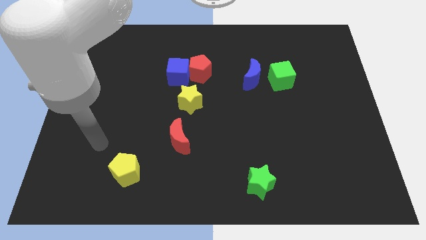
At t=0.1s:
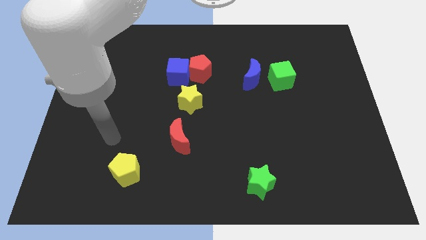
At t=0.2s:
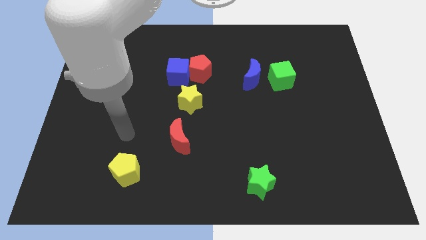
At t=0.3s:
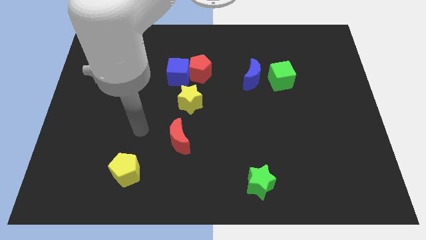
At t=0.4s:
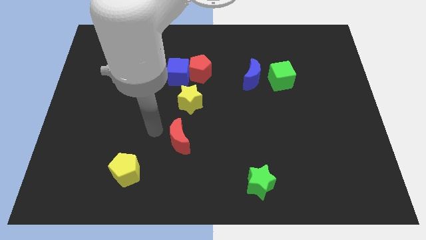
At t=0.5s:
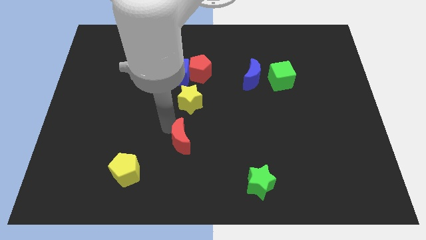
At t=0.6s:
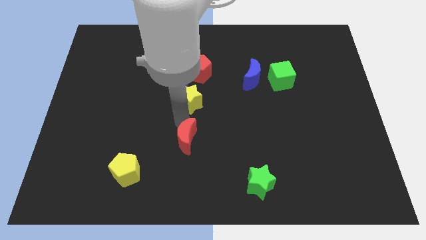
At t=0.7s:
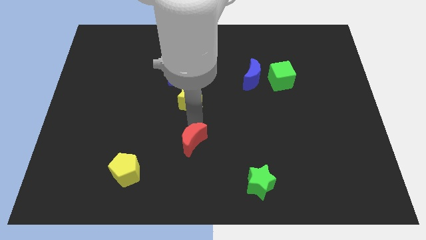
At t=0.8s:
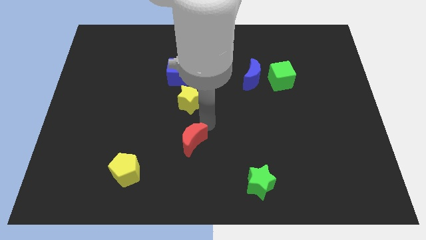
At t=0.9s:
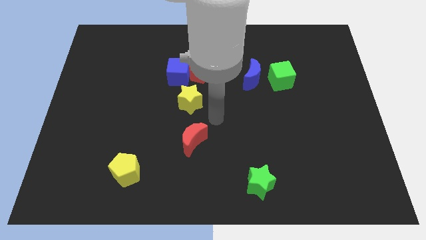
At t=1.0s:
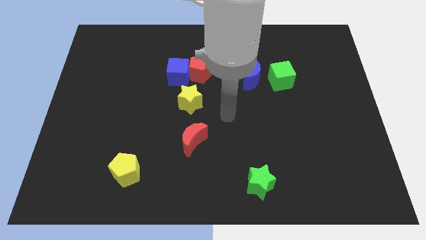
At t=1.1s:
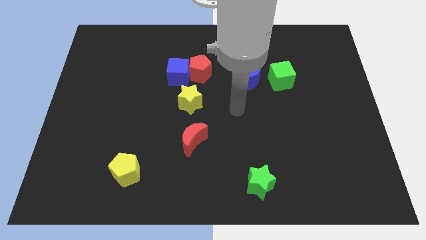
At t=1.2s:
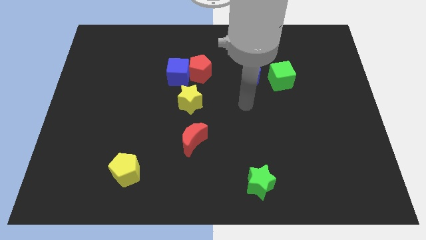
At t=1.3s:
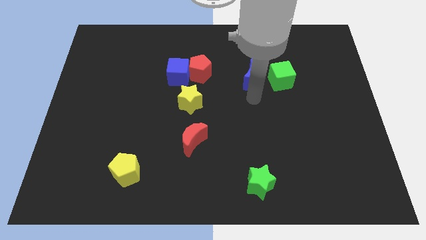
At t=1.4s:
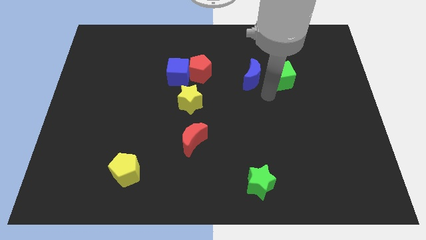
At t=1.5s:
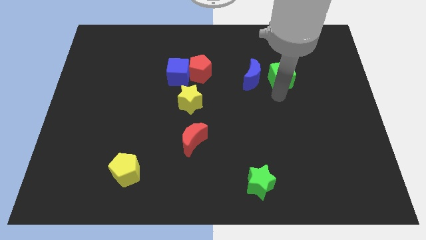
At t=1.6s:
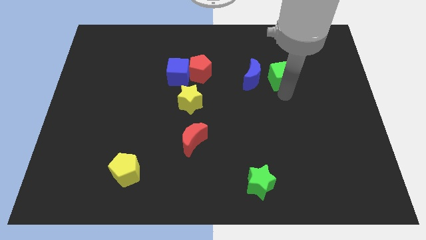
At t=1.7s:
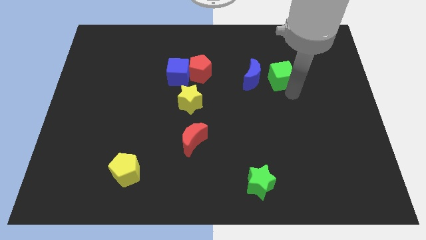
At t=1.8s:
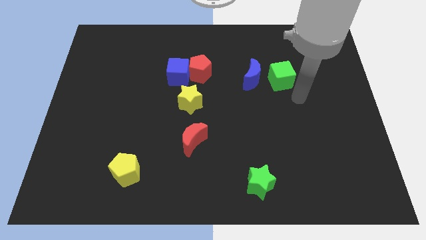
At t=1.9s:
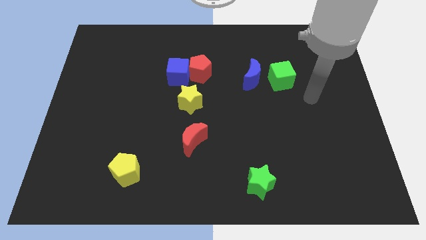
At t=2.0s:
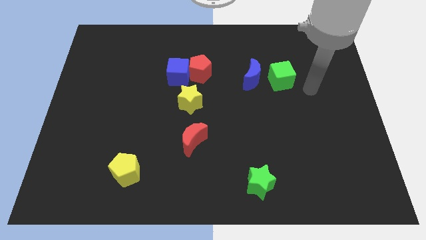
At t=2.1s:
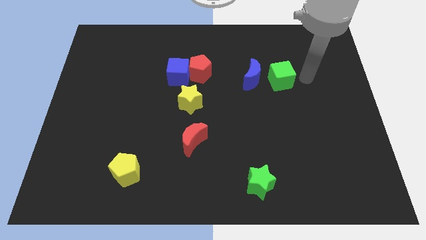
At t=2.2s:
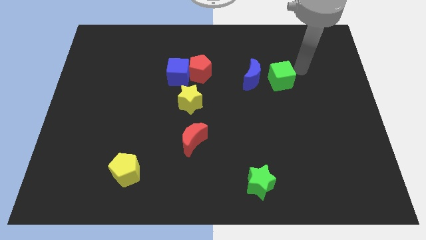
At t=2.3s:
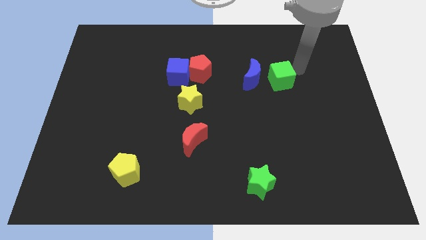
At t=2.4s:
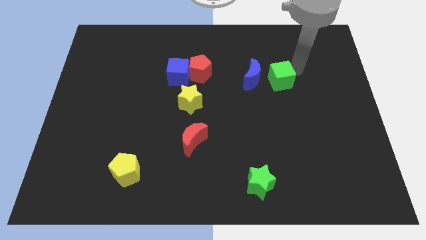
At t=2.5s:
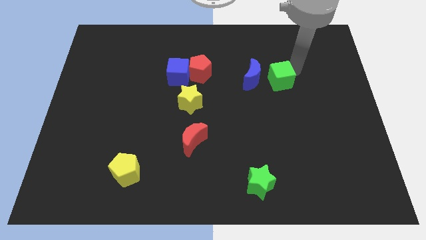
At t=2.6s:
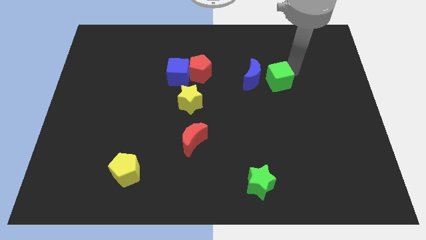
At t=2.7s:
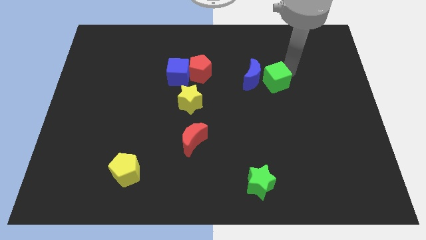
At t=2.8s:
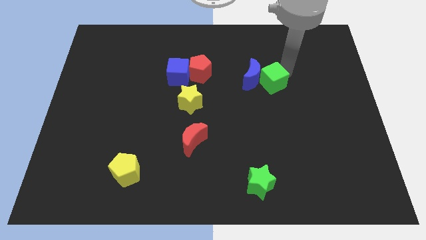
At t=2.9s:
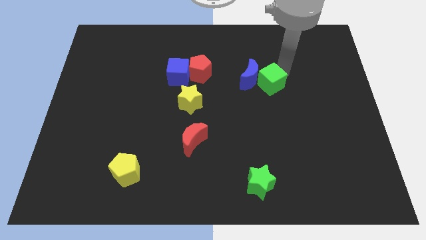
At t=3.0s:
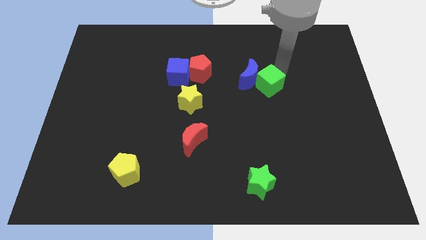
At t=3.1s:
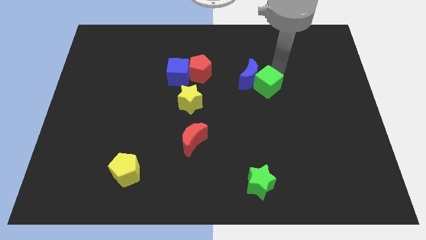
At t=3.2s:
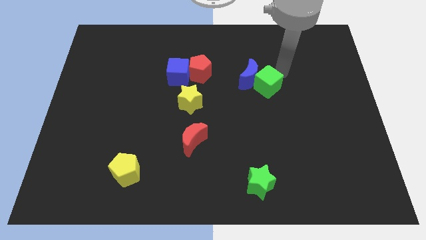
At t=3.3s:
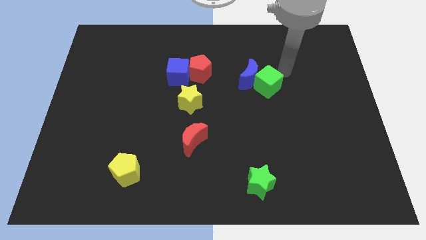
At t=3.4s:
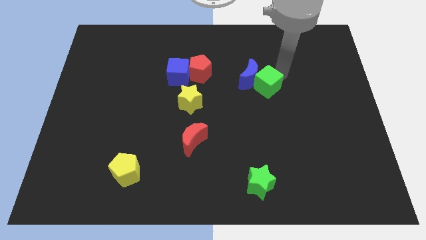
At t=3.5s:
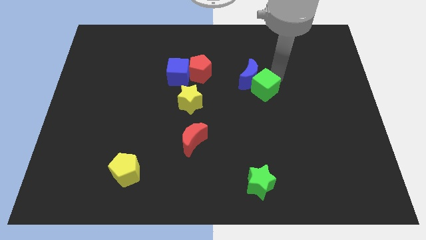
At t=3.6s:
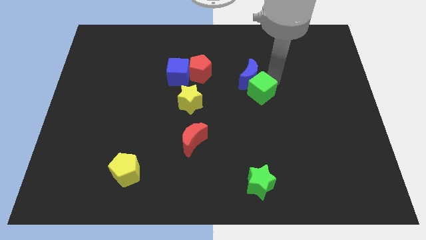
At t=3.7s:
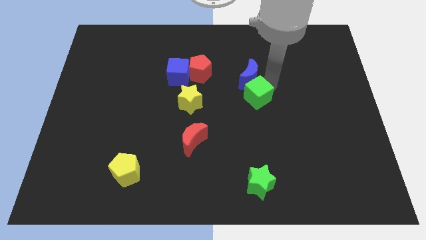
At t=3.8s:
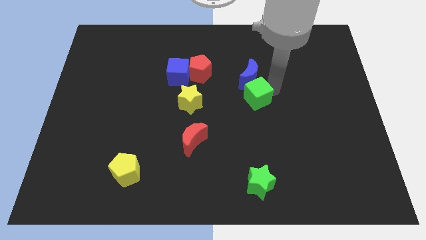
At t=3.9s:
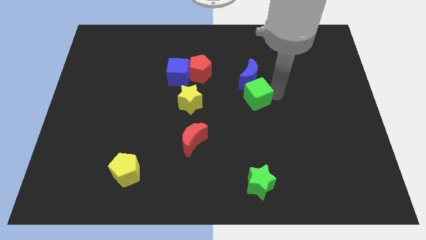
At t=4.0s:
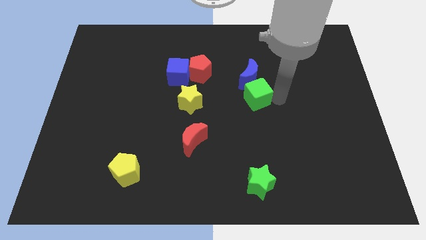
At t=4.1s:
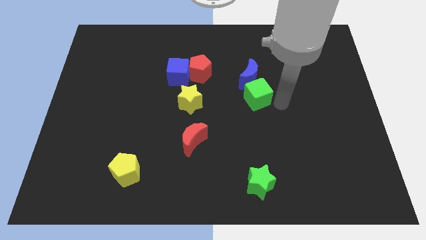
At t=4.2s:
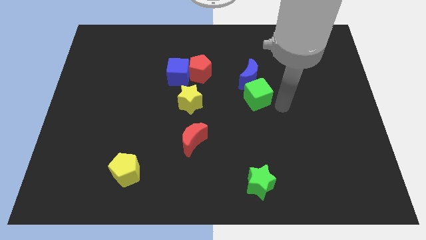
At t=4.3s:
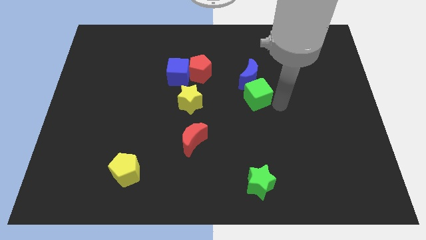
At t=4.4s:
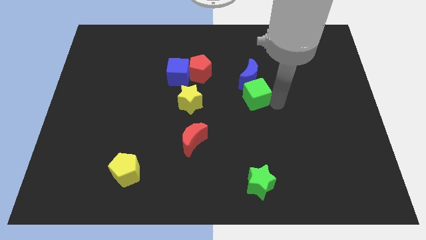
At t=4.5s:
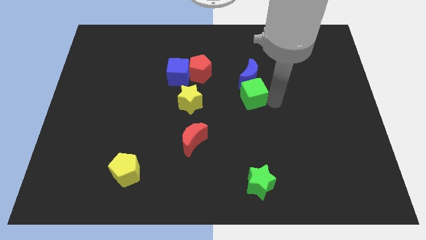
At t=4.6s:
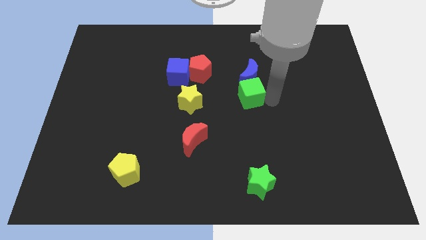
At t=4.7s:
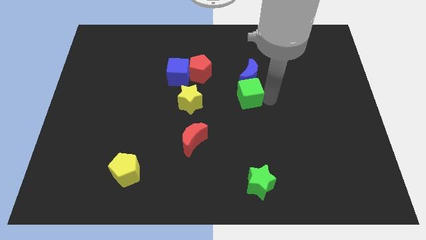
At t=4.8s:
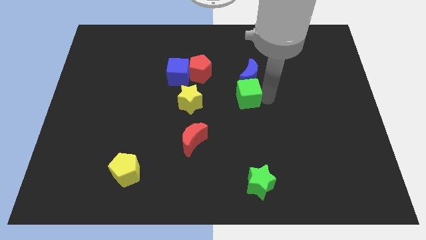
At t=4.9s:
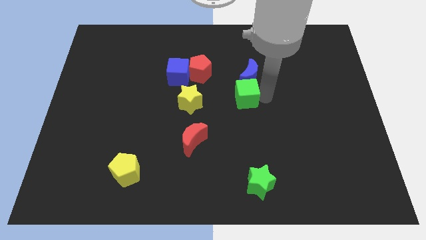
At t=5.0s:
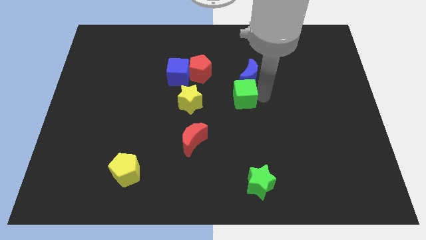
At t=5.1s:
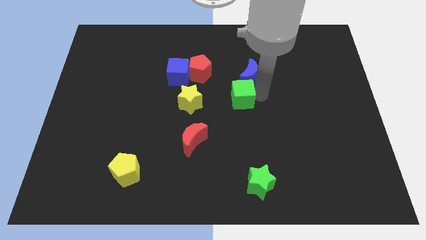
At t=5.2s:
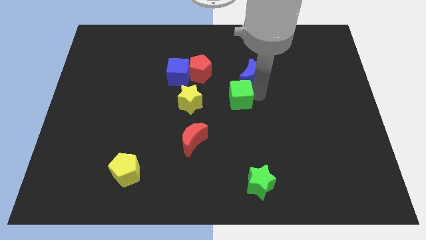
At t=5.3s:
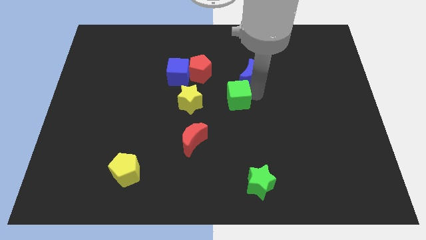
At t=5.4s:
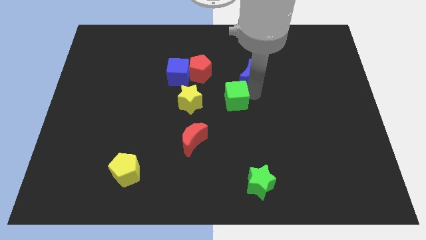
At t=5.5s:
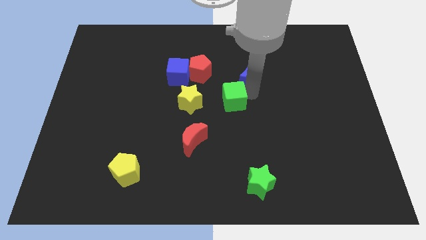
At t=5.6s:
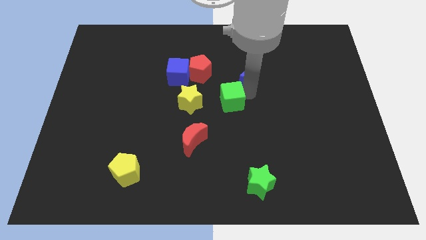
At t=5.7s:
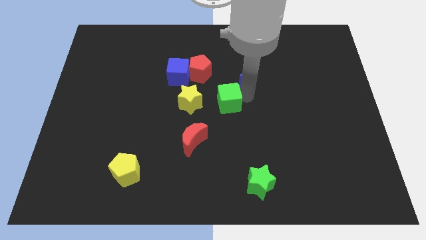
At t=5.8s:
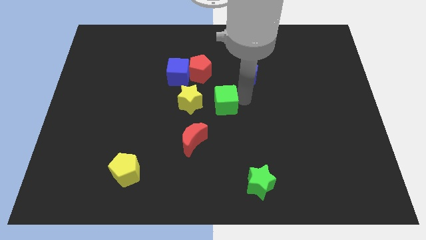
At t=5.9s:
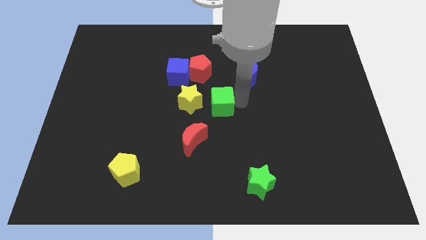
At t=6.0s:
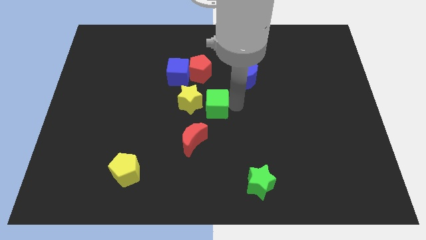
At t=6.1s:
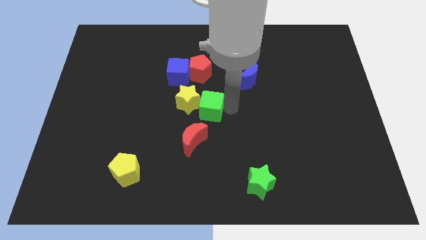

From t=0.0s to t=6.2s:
push the green cube to the top of the red moon

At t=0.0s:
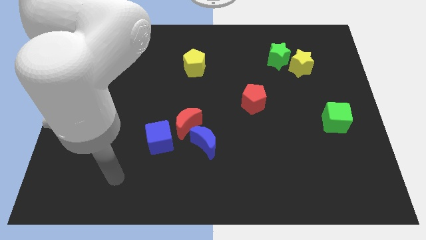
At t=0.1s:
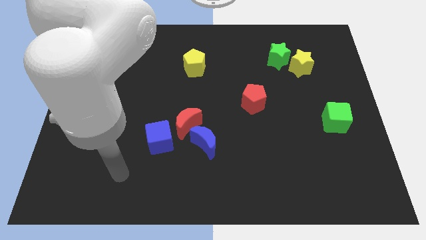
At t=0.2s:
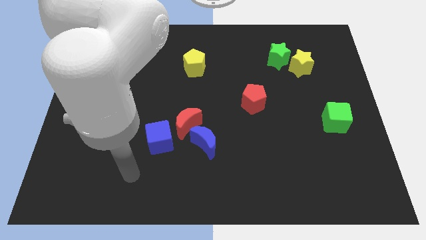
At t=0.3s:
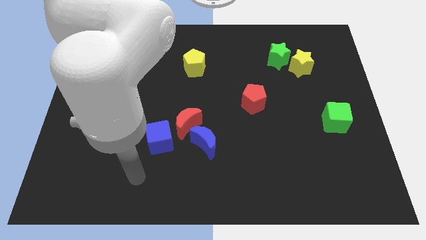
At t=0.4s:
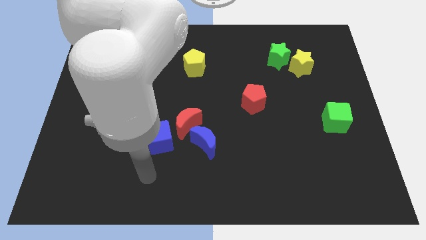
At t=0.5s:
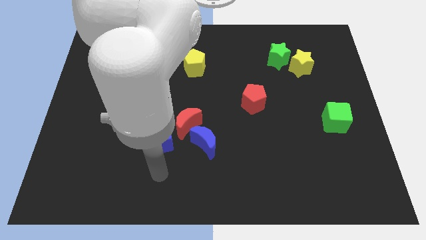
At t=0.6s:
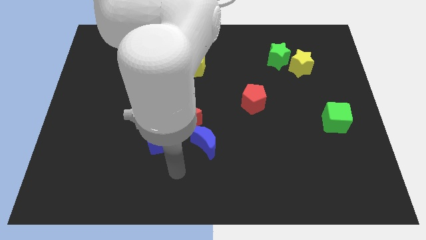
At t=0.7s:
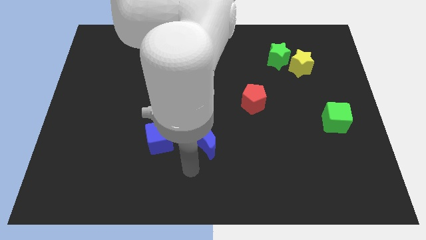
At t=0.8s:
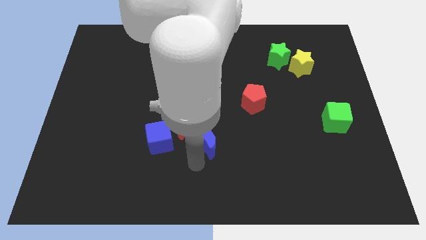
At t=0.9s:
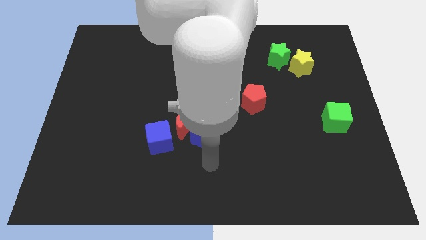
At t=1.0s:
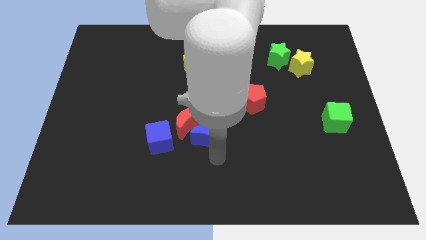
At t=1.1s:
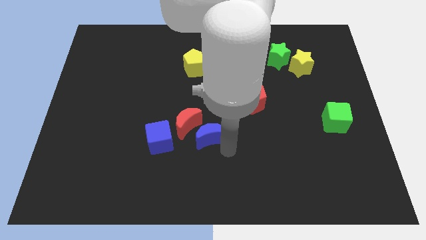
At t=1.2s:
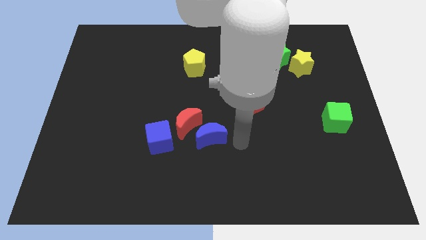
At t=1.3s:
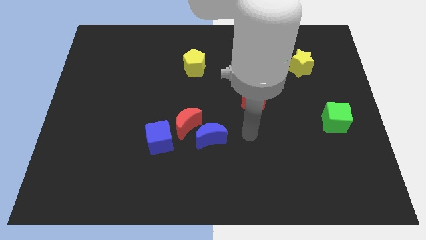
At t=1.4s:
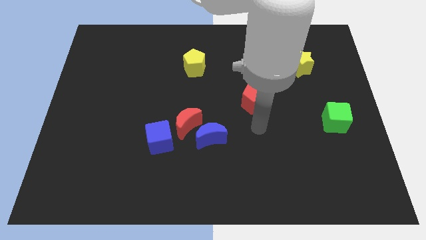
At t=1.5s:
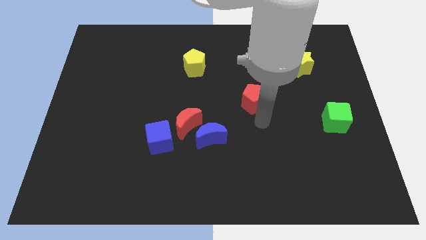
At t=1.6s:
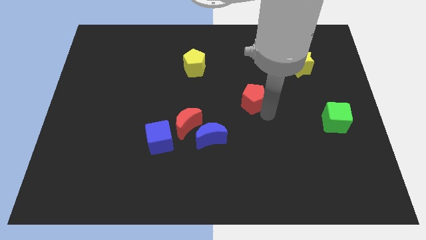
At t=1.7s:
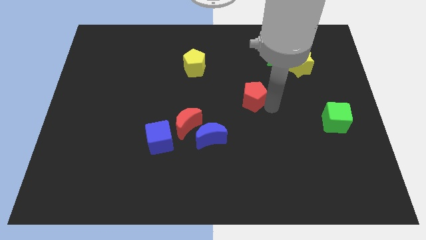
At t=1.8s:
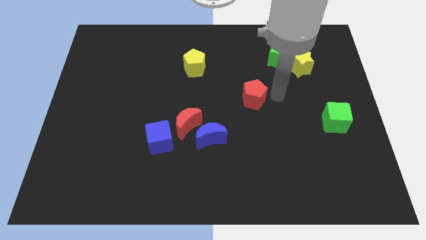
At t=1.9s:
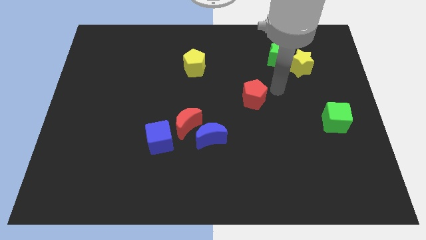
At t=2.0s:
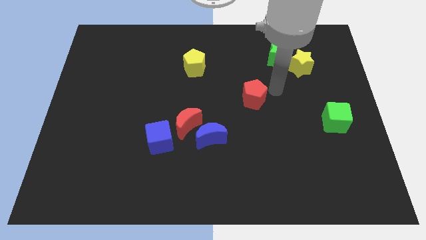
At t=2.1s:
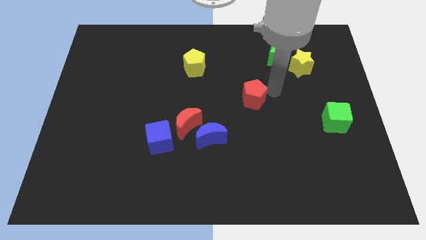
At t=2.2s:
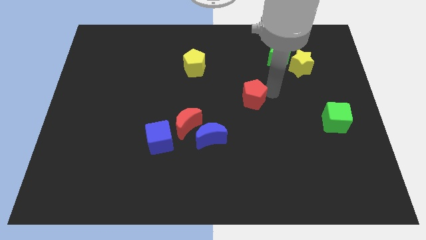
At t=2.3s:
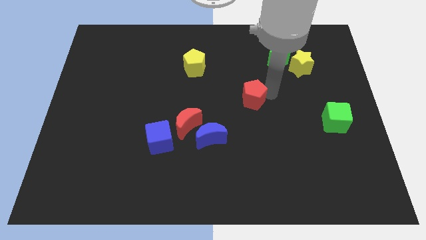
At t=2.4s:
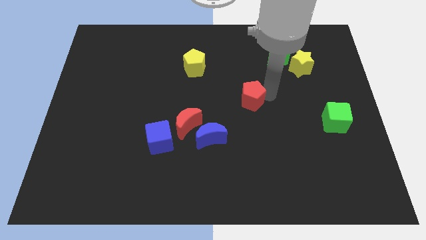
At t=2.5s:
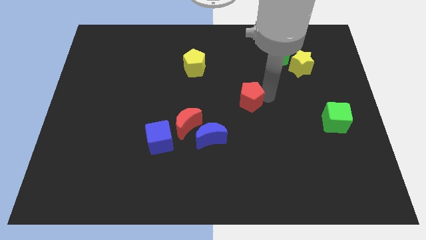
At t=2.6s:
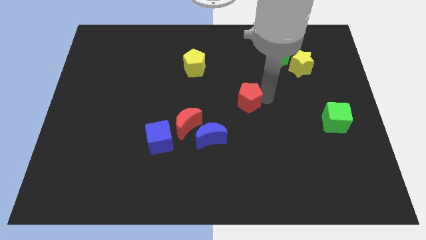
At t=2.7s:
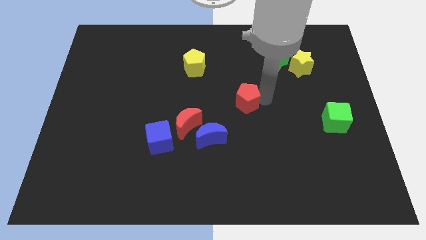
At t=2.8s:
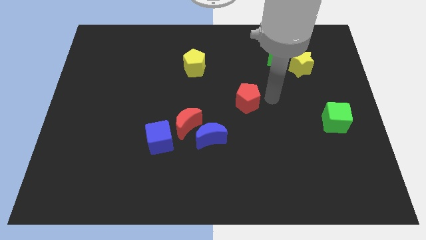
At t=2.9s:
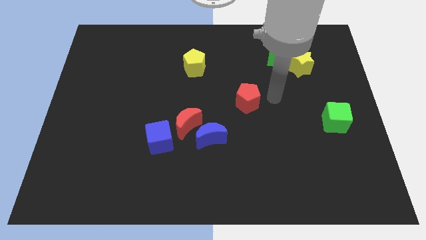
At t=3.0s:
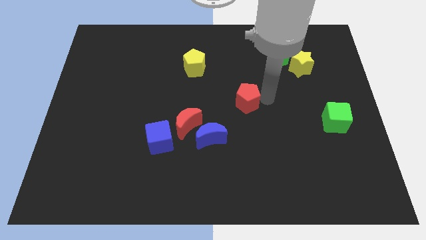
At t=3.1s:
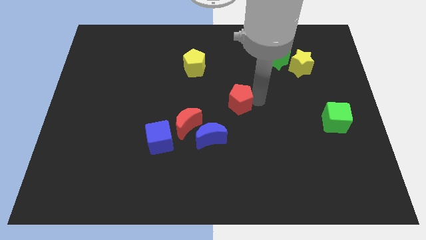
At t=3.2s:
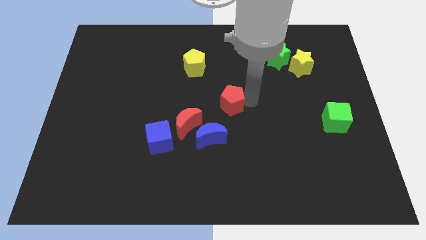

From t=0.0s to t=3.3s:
slide the red pentagon diagonally up and to the right of the red moon
